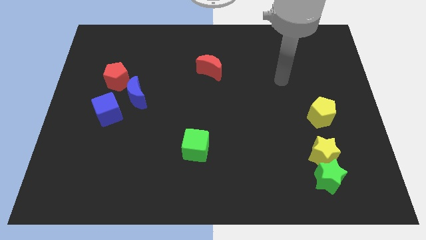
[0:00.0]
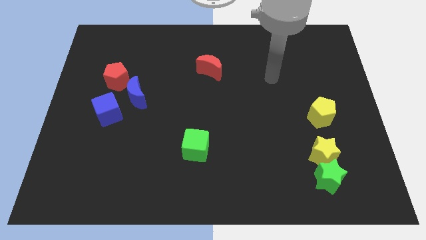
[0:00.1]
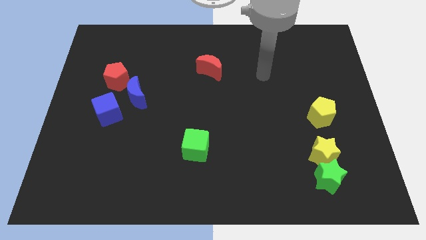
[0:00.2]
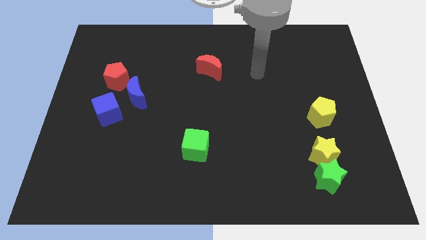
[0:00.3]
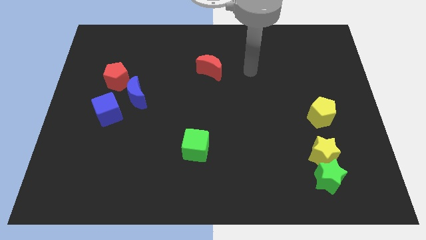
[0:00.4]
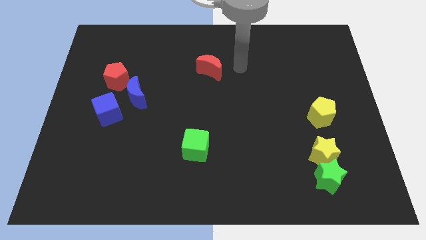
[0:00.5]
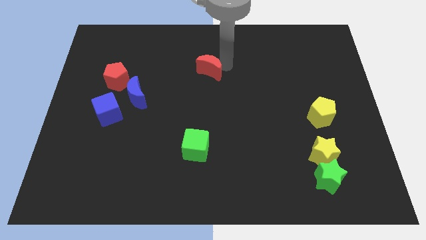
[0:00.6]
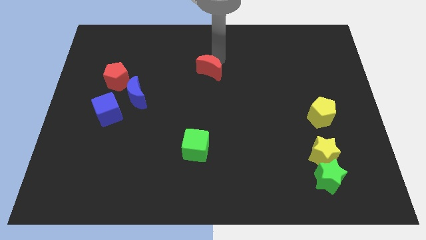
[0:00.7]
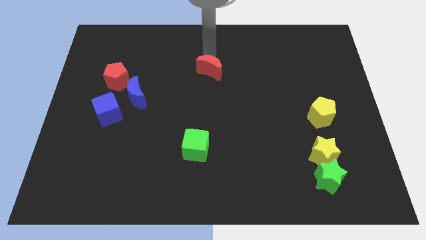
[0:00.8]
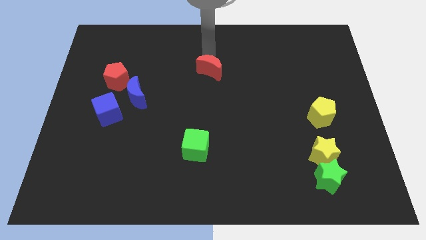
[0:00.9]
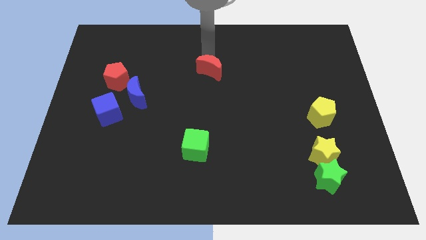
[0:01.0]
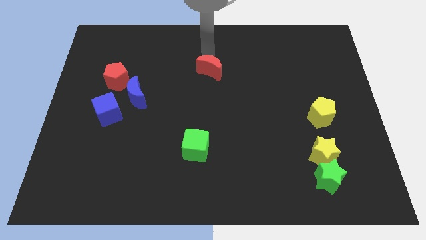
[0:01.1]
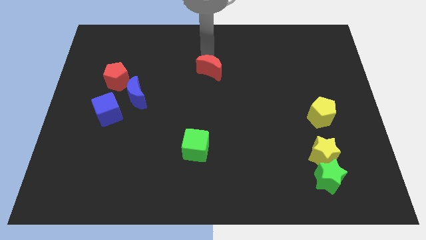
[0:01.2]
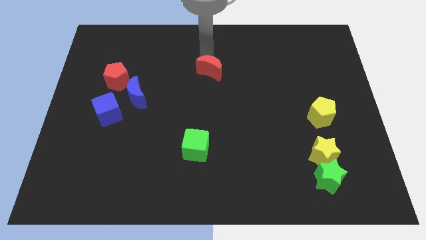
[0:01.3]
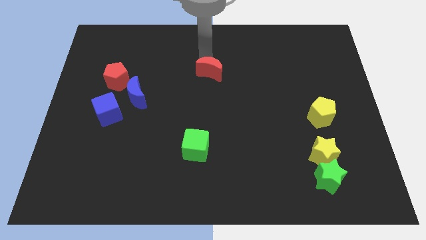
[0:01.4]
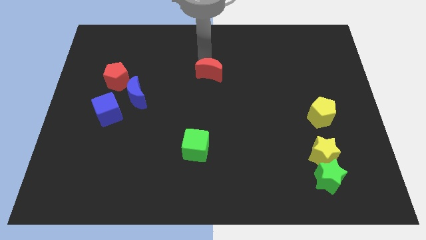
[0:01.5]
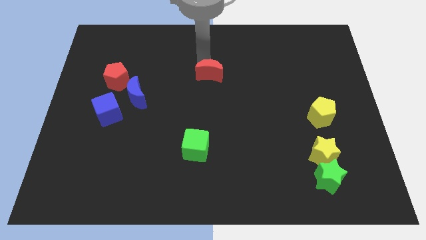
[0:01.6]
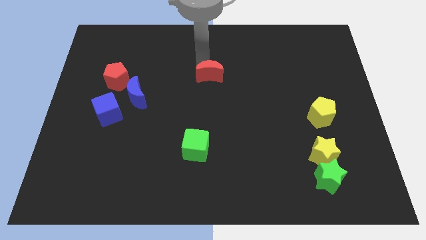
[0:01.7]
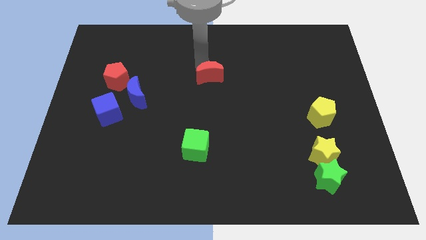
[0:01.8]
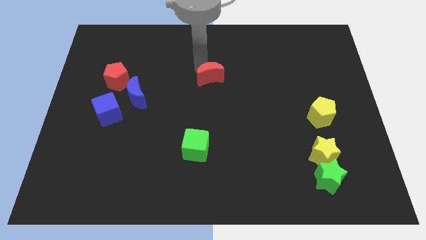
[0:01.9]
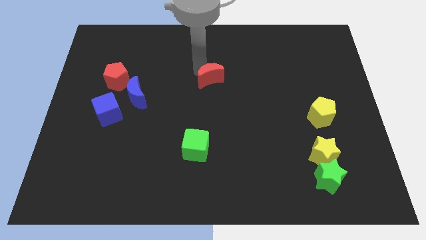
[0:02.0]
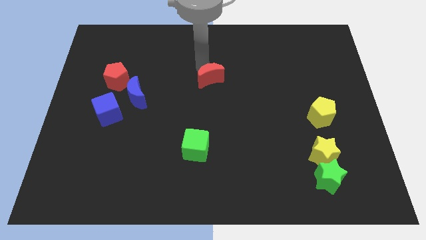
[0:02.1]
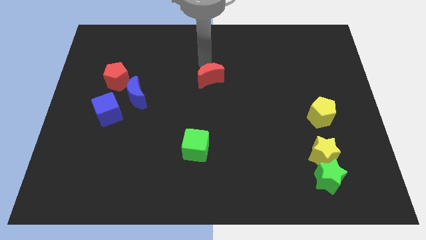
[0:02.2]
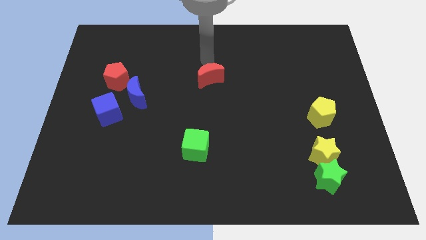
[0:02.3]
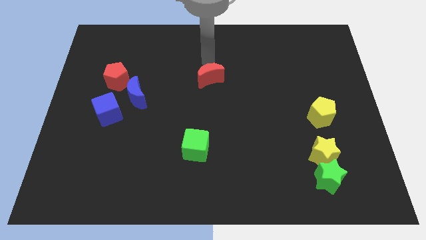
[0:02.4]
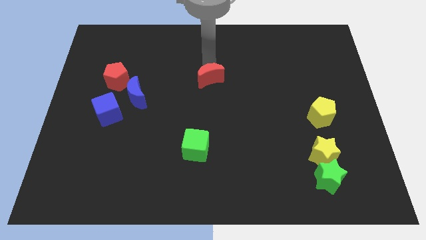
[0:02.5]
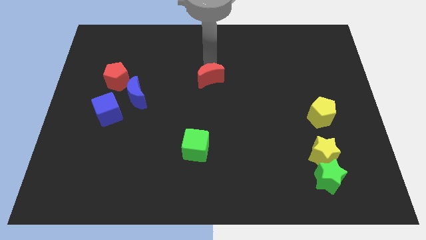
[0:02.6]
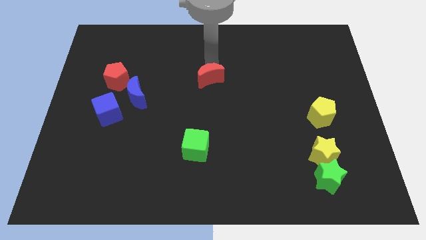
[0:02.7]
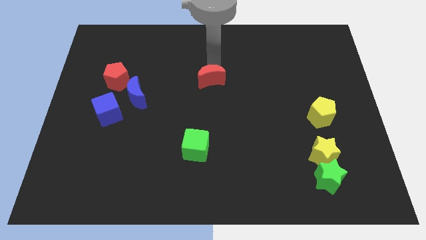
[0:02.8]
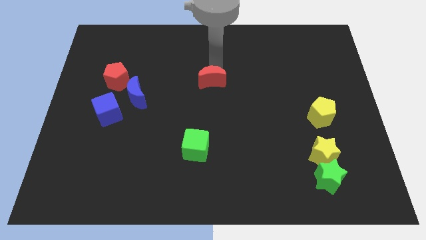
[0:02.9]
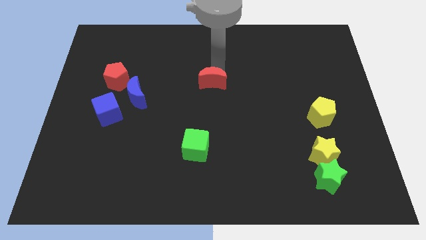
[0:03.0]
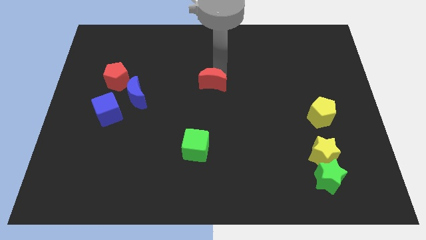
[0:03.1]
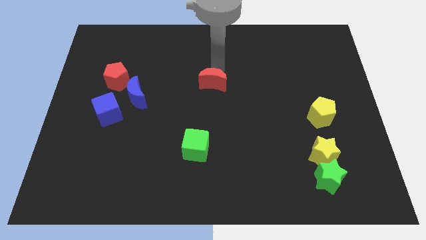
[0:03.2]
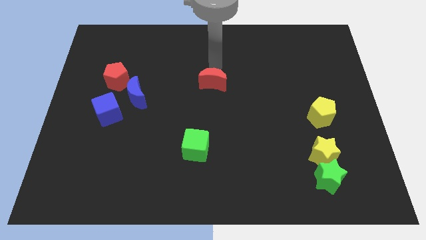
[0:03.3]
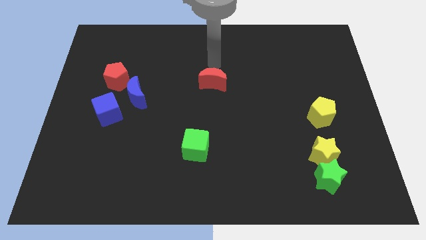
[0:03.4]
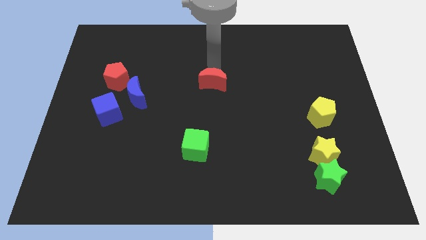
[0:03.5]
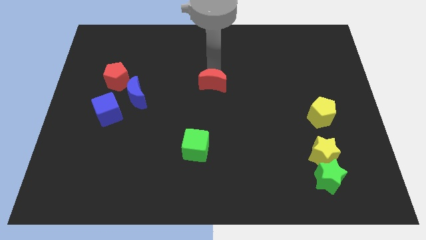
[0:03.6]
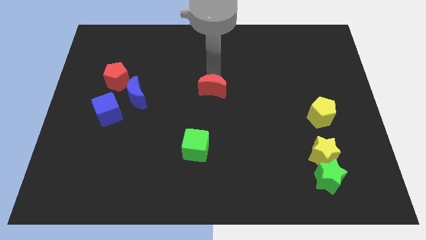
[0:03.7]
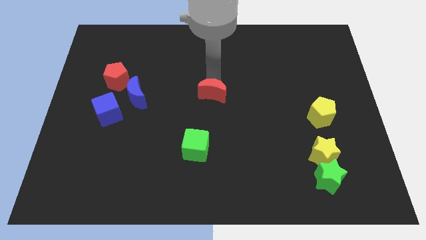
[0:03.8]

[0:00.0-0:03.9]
move the red moon a little downwards

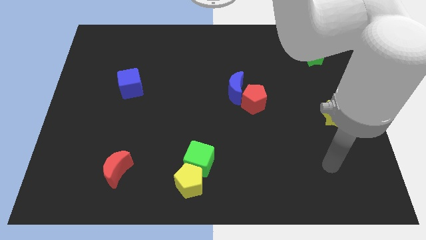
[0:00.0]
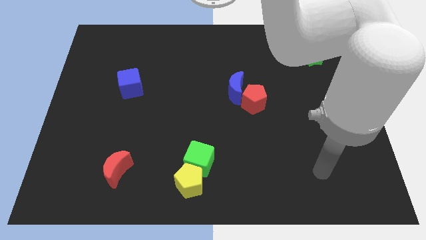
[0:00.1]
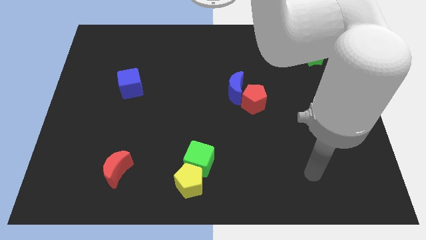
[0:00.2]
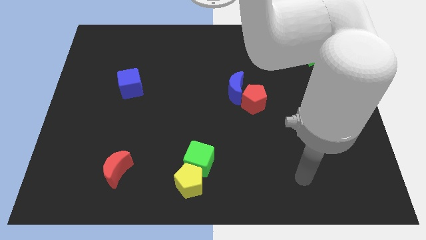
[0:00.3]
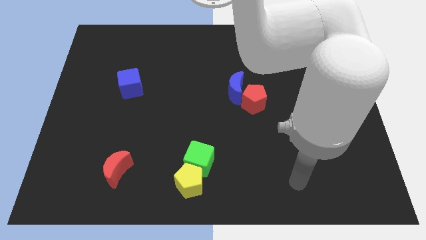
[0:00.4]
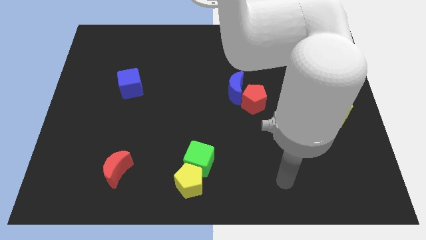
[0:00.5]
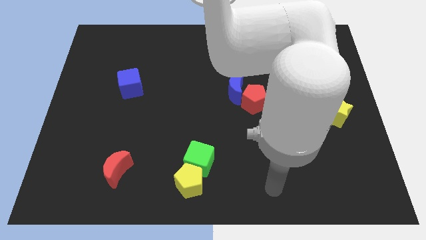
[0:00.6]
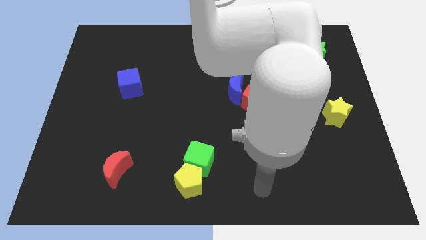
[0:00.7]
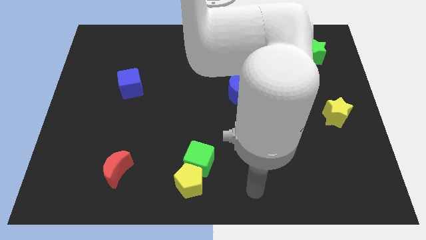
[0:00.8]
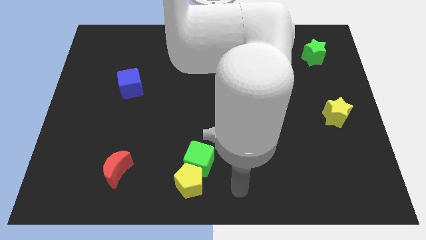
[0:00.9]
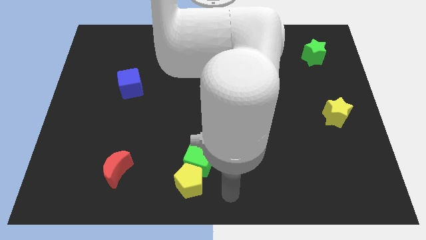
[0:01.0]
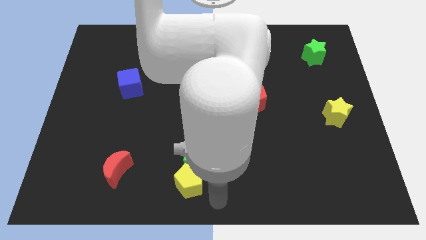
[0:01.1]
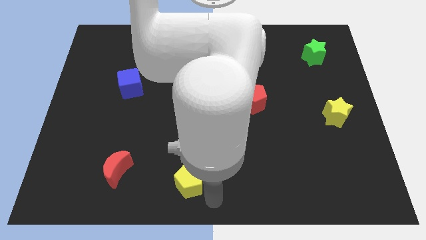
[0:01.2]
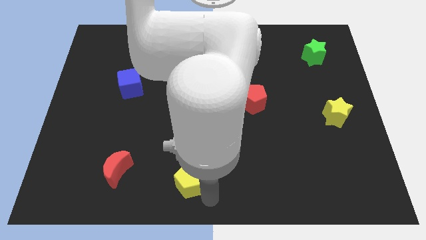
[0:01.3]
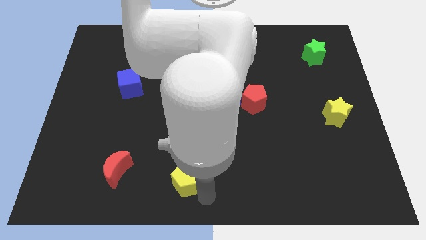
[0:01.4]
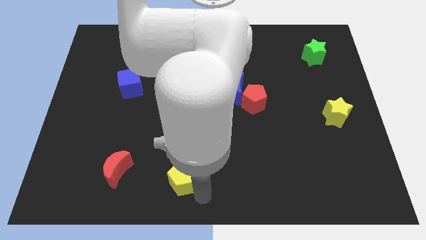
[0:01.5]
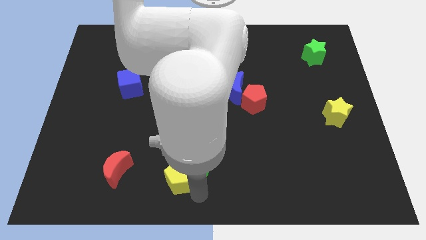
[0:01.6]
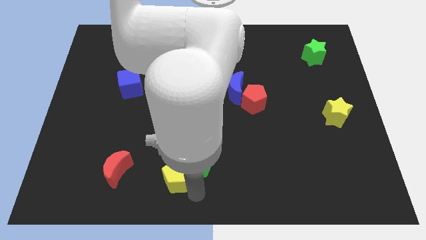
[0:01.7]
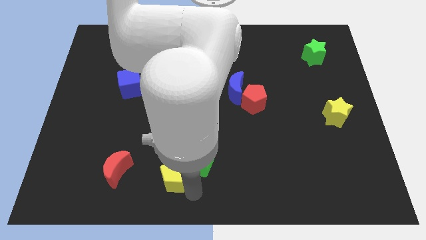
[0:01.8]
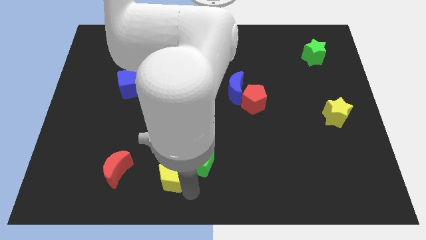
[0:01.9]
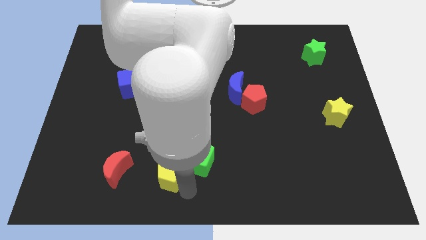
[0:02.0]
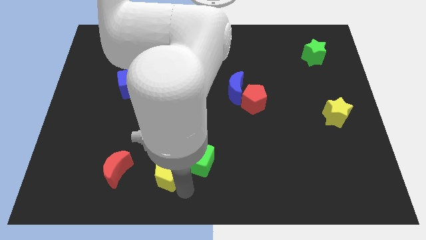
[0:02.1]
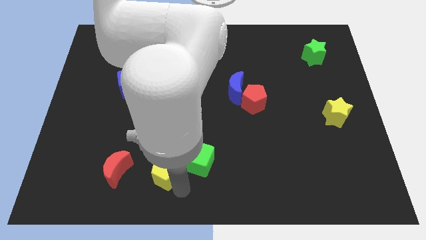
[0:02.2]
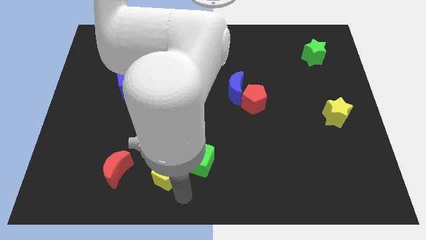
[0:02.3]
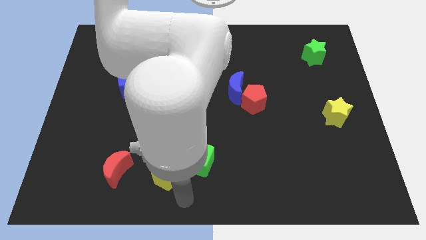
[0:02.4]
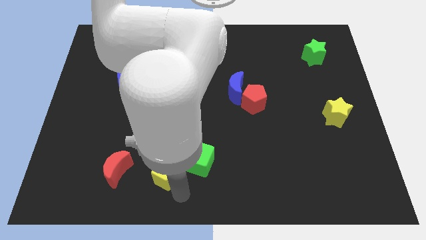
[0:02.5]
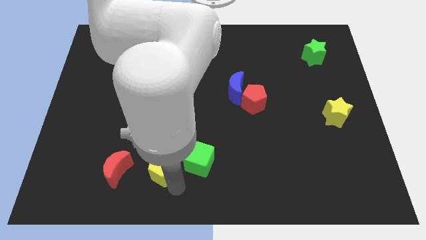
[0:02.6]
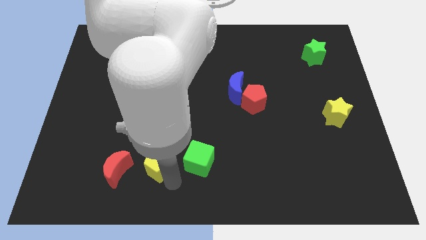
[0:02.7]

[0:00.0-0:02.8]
push the yellow pentagon upwards and to the left a little bit

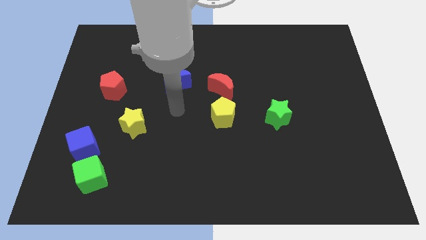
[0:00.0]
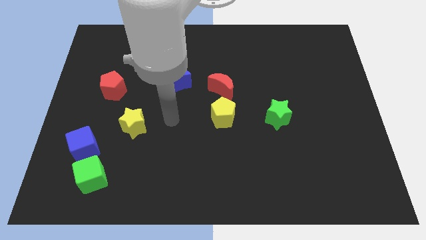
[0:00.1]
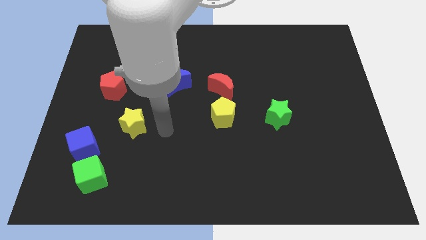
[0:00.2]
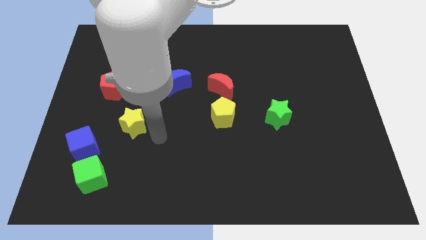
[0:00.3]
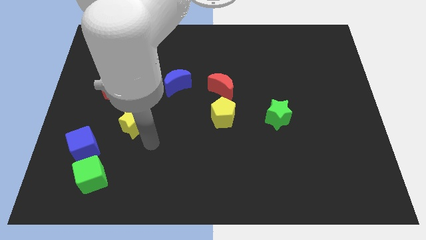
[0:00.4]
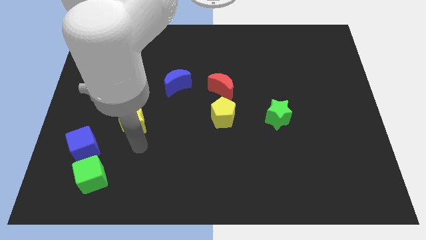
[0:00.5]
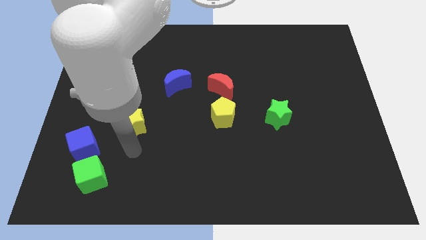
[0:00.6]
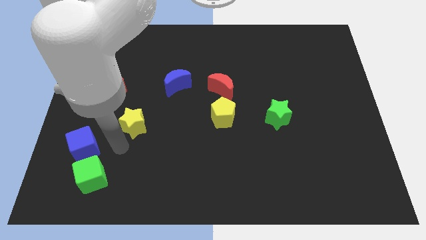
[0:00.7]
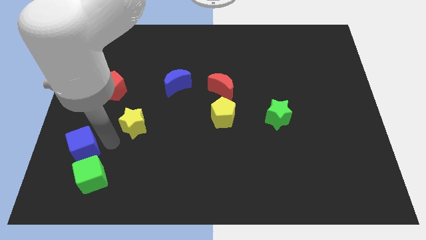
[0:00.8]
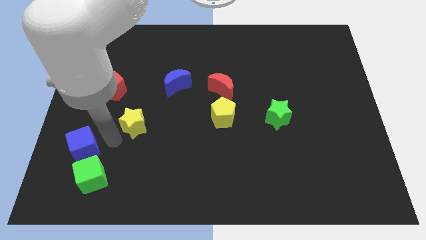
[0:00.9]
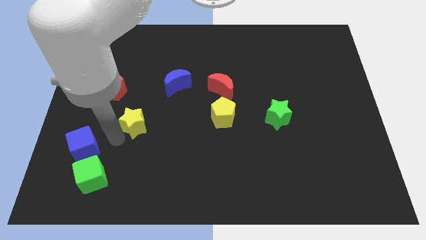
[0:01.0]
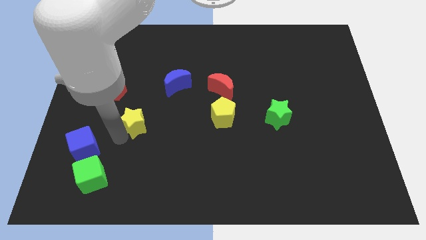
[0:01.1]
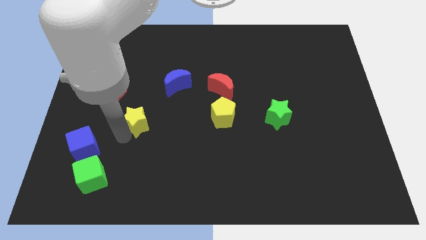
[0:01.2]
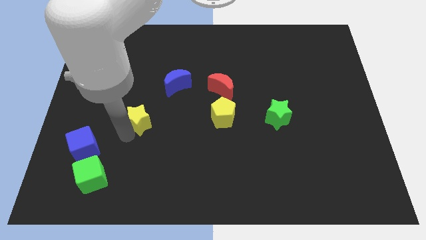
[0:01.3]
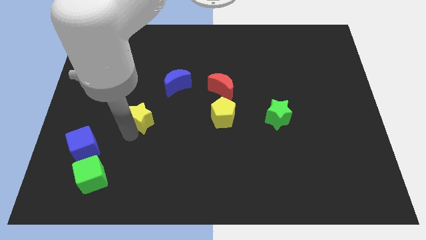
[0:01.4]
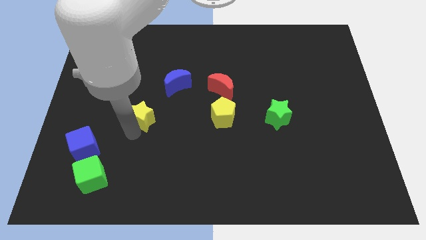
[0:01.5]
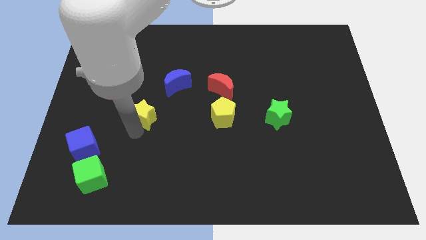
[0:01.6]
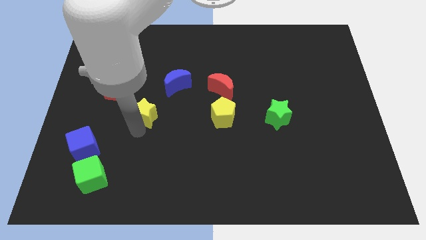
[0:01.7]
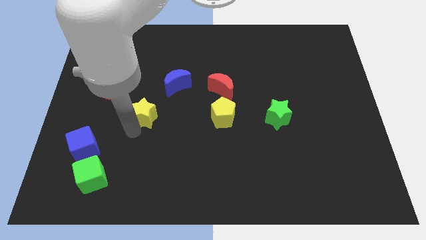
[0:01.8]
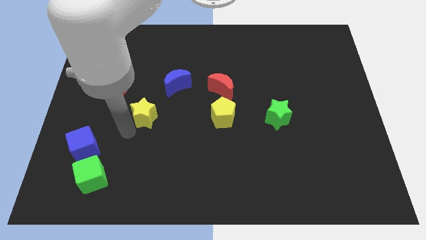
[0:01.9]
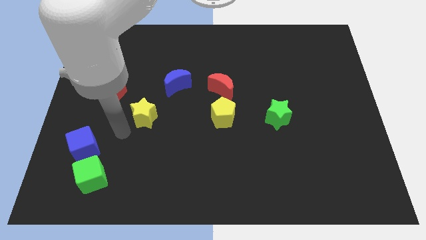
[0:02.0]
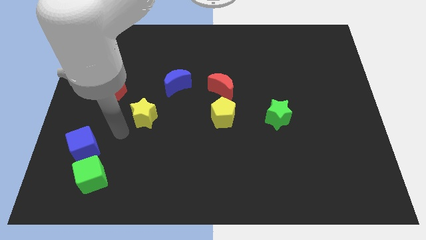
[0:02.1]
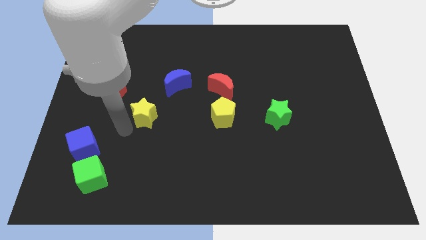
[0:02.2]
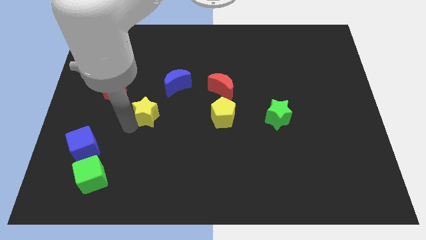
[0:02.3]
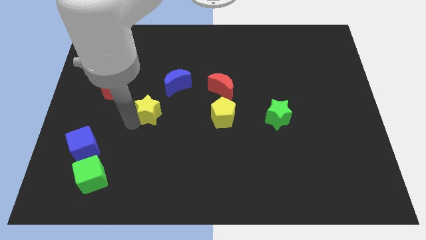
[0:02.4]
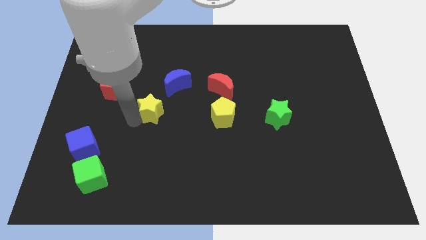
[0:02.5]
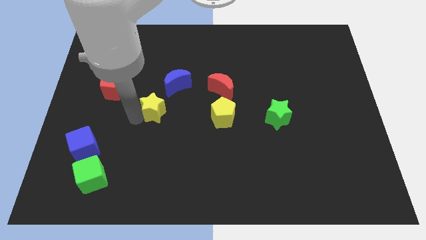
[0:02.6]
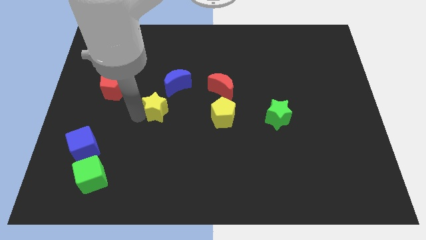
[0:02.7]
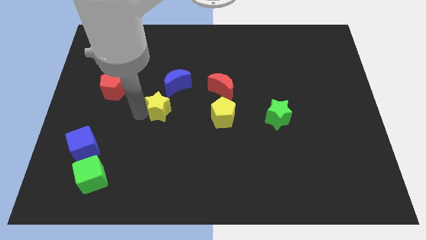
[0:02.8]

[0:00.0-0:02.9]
slightly move the yellow star diagonally up and right
